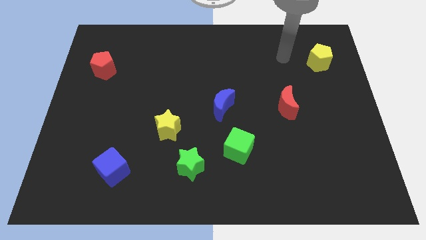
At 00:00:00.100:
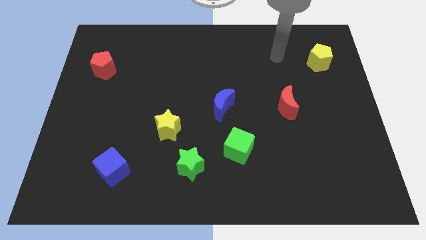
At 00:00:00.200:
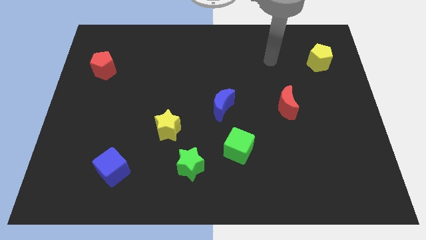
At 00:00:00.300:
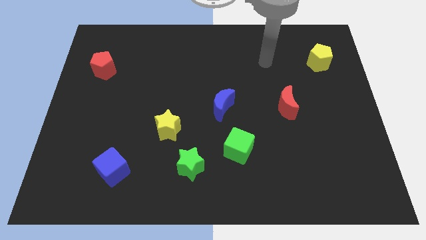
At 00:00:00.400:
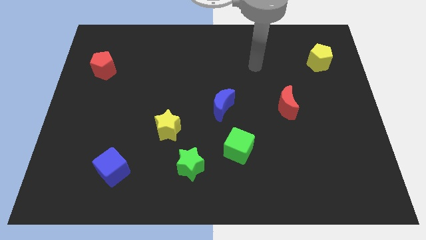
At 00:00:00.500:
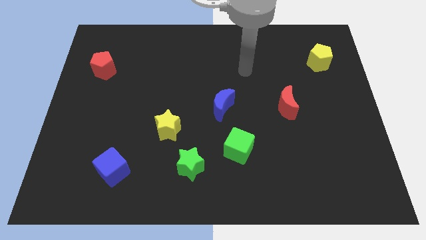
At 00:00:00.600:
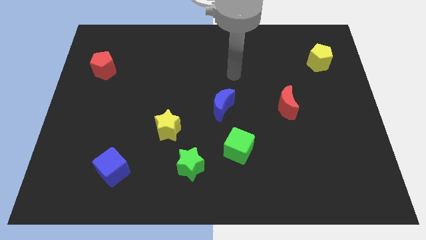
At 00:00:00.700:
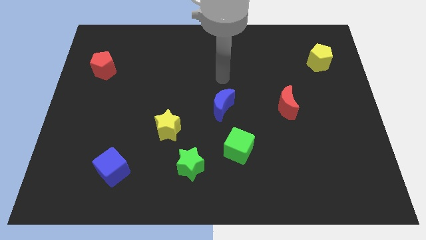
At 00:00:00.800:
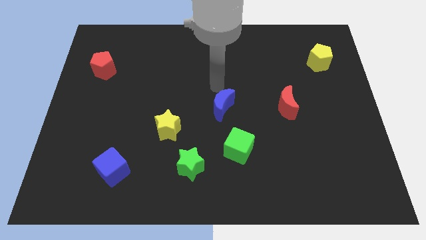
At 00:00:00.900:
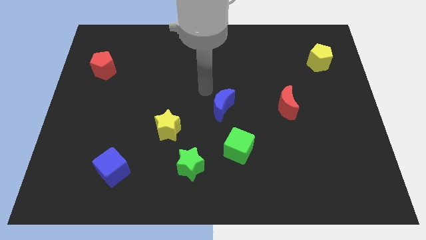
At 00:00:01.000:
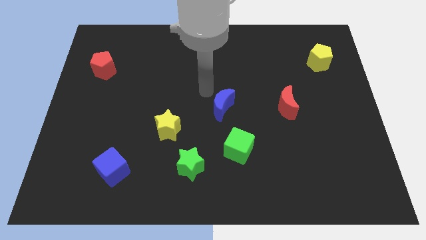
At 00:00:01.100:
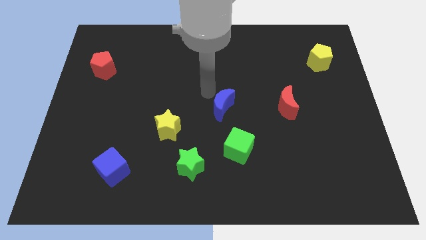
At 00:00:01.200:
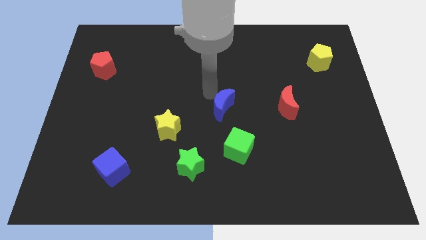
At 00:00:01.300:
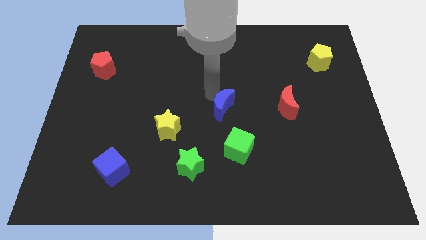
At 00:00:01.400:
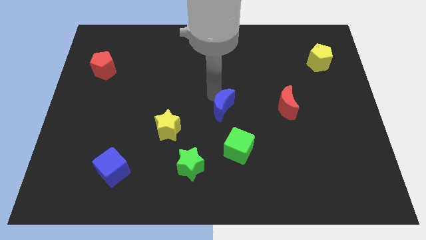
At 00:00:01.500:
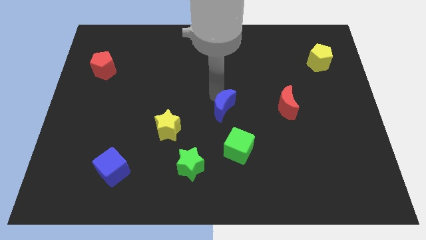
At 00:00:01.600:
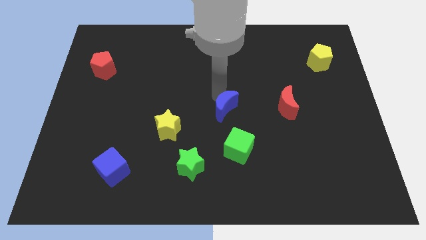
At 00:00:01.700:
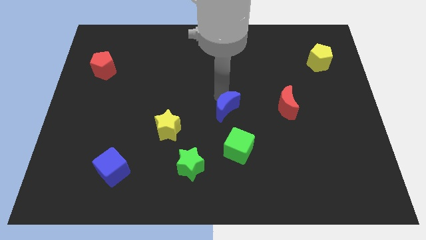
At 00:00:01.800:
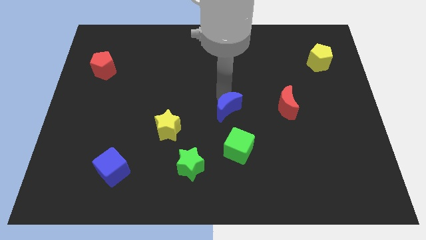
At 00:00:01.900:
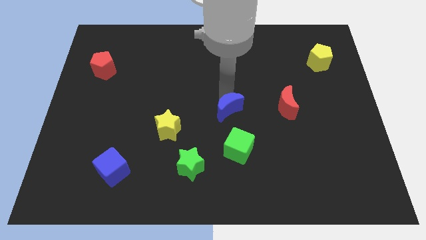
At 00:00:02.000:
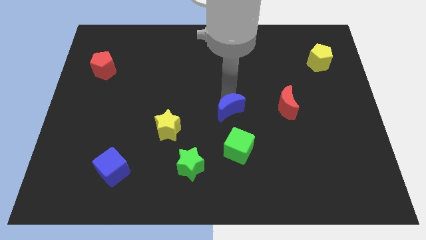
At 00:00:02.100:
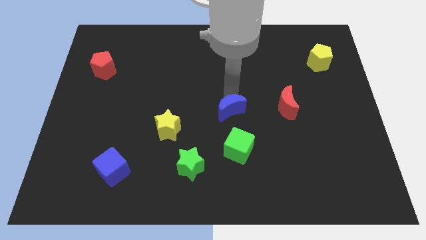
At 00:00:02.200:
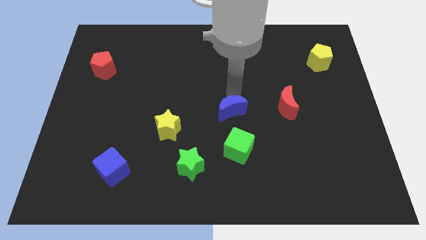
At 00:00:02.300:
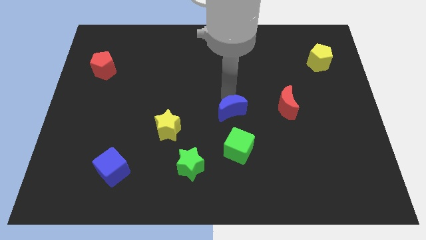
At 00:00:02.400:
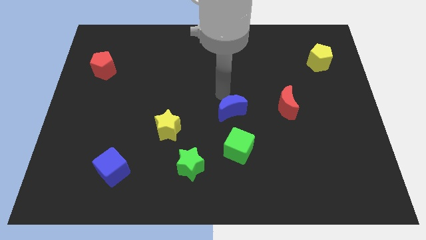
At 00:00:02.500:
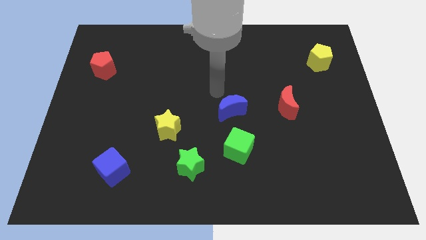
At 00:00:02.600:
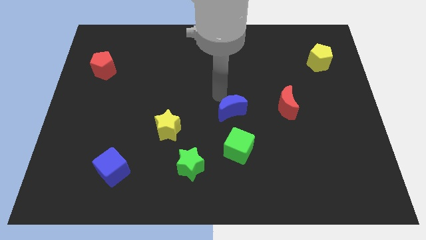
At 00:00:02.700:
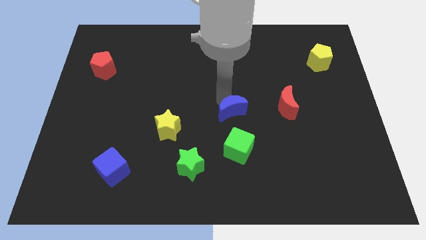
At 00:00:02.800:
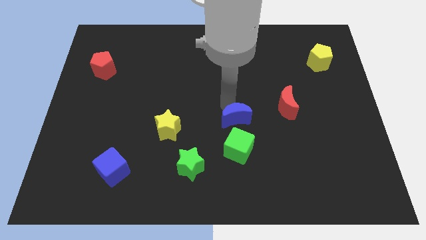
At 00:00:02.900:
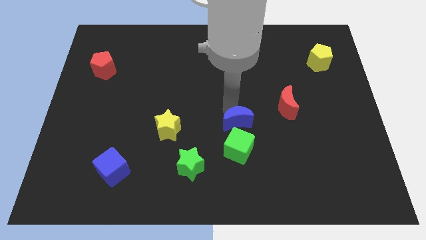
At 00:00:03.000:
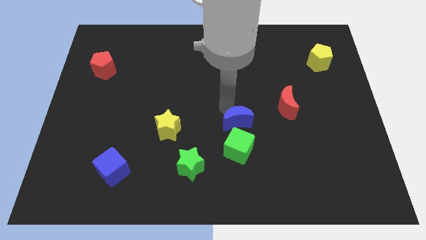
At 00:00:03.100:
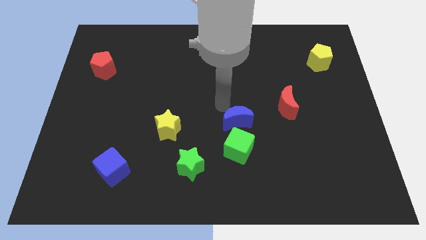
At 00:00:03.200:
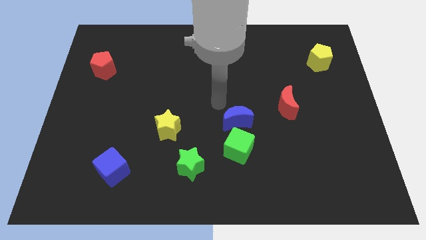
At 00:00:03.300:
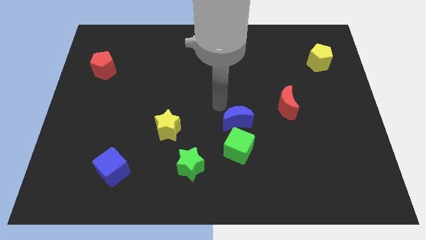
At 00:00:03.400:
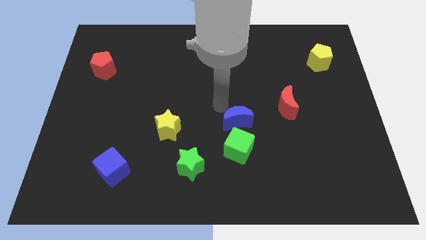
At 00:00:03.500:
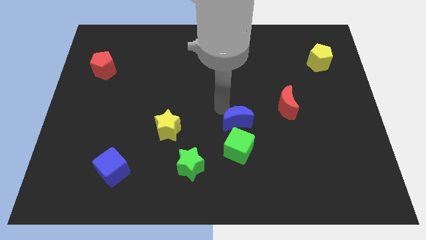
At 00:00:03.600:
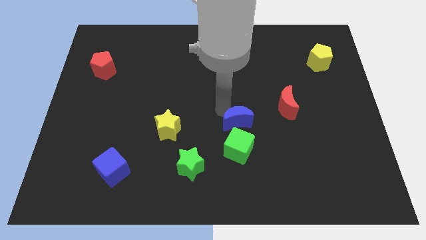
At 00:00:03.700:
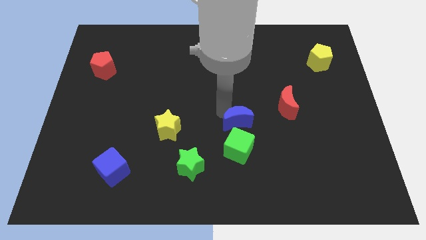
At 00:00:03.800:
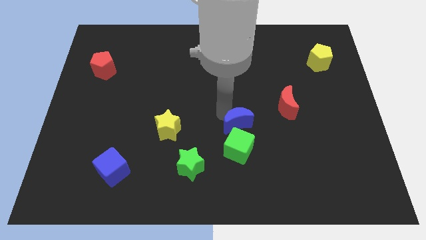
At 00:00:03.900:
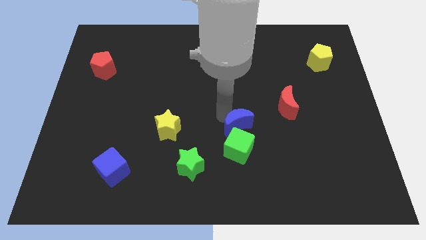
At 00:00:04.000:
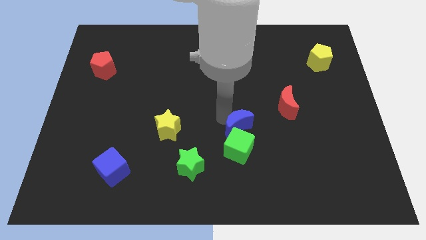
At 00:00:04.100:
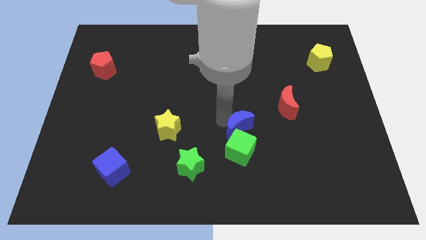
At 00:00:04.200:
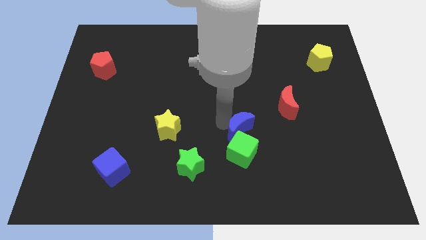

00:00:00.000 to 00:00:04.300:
slide the blue moon a little bit downwards and to the right diagonally

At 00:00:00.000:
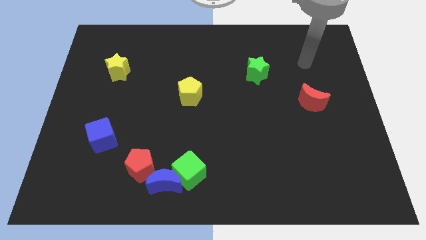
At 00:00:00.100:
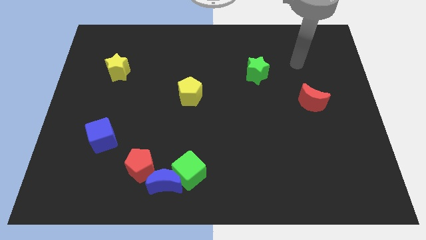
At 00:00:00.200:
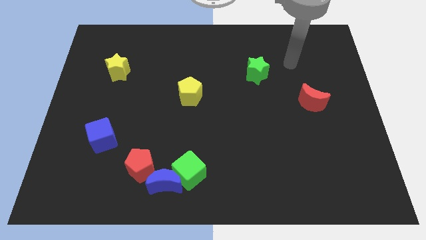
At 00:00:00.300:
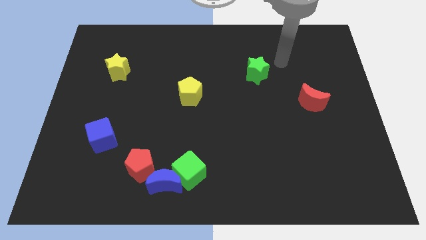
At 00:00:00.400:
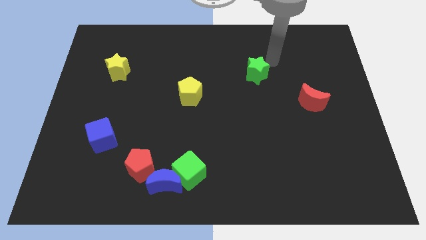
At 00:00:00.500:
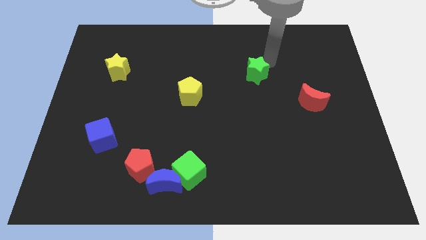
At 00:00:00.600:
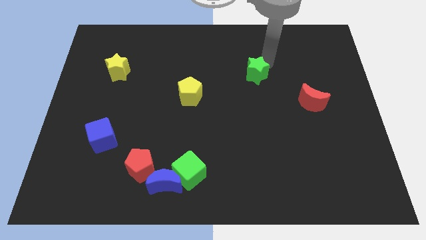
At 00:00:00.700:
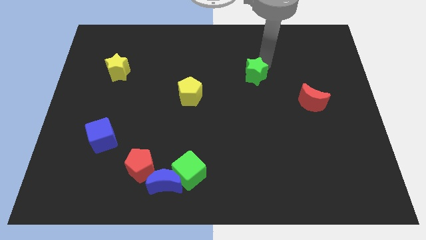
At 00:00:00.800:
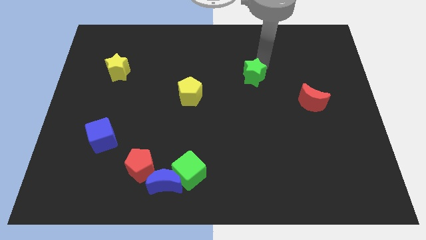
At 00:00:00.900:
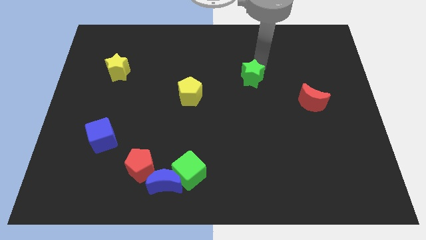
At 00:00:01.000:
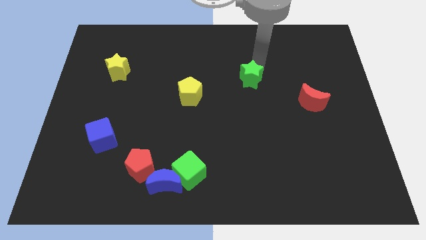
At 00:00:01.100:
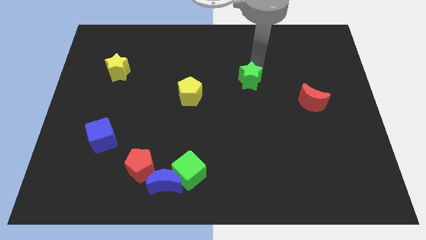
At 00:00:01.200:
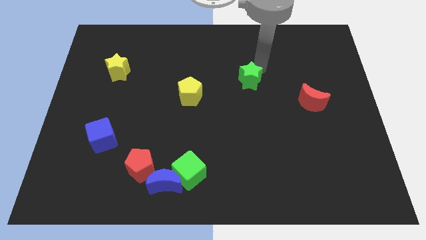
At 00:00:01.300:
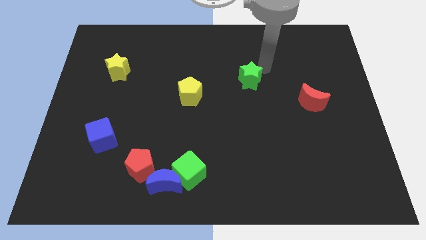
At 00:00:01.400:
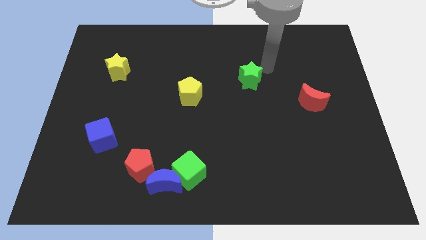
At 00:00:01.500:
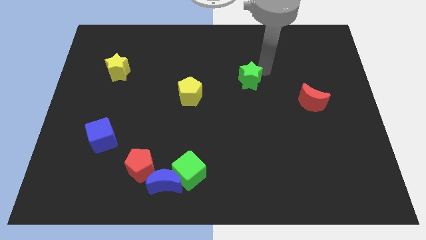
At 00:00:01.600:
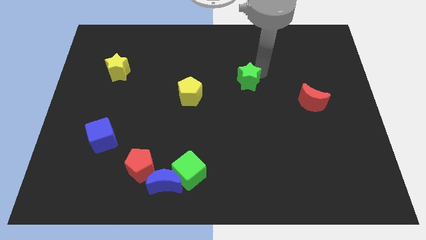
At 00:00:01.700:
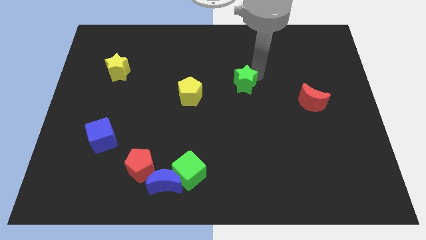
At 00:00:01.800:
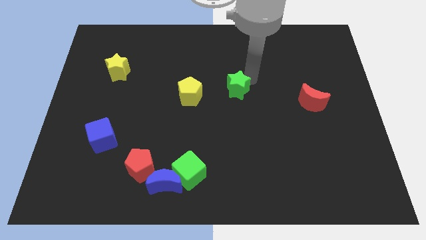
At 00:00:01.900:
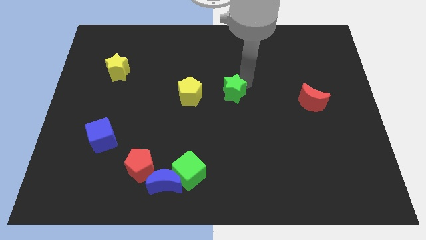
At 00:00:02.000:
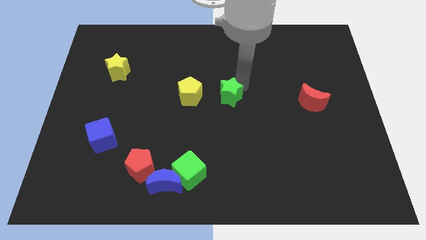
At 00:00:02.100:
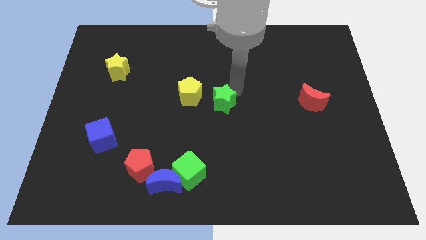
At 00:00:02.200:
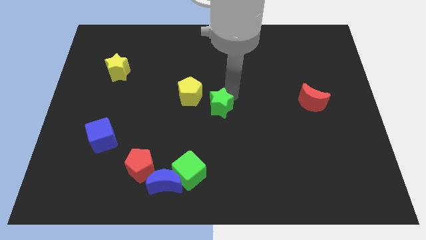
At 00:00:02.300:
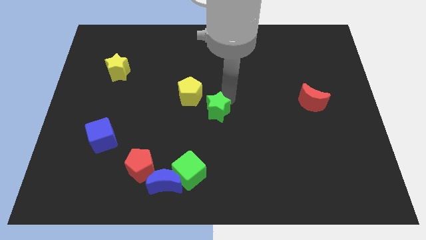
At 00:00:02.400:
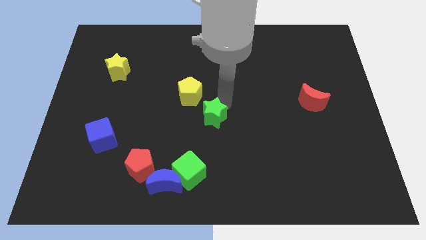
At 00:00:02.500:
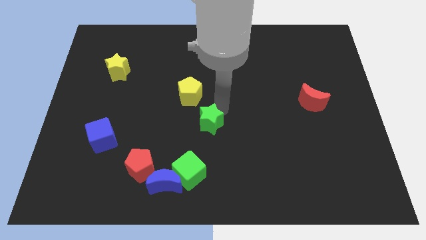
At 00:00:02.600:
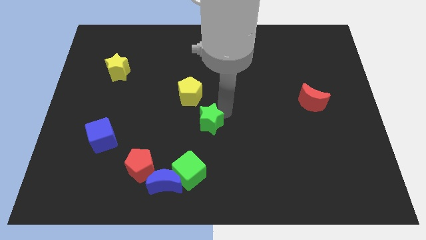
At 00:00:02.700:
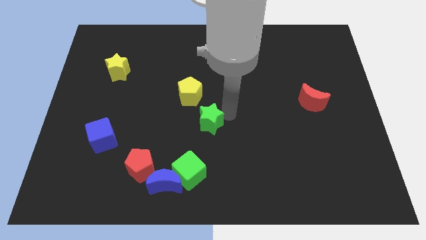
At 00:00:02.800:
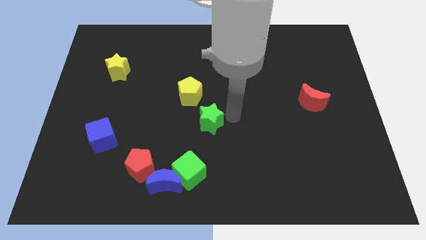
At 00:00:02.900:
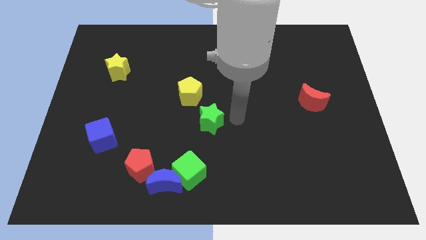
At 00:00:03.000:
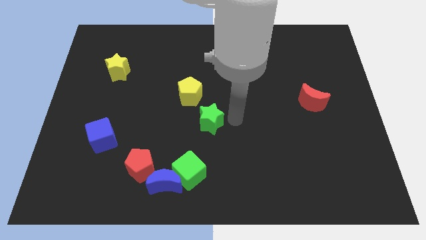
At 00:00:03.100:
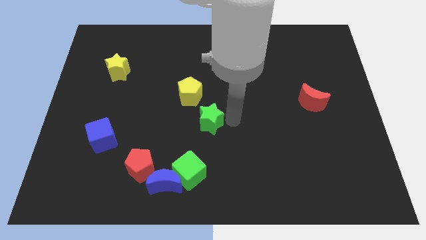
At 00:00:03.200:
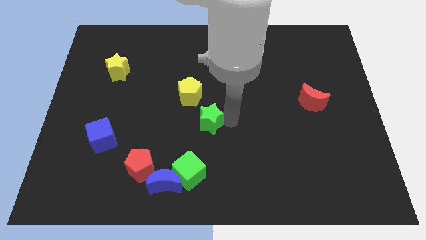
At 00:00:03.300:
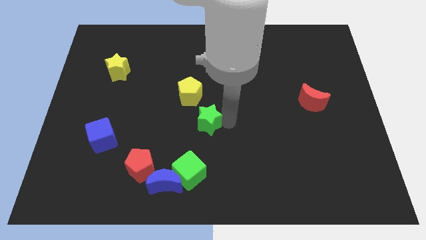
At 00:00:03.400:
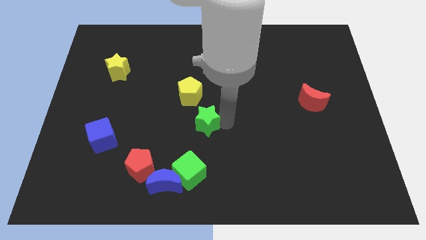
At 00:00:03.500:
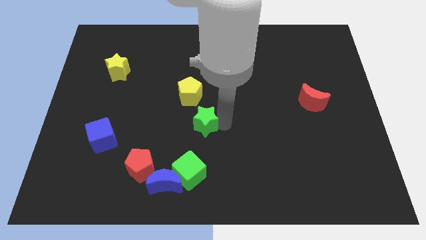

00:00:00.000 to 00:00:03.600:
slide the green star down and left diagonally
